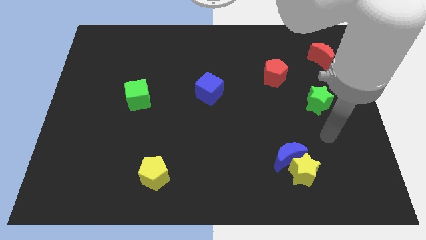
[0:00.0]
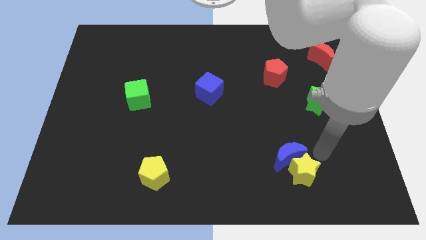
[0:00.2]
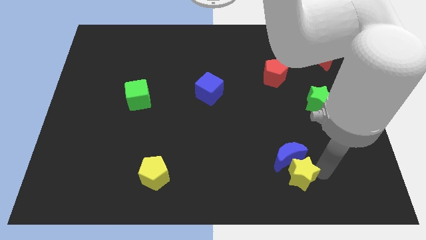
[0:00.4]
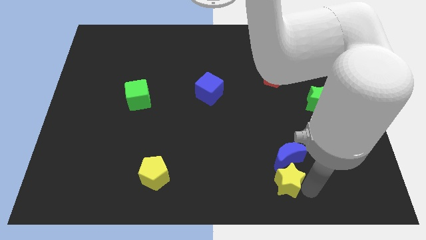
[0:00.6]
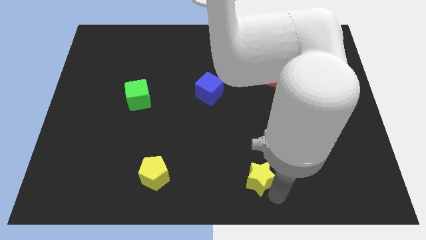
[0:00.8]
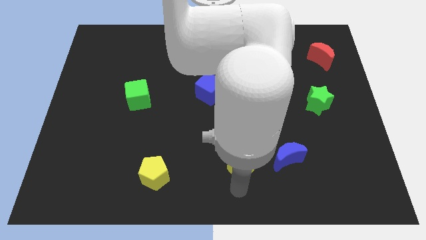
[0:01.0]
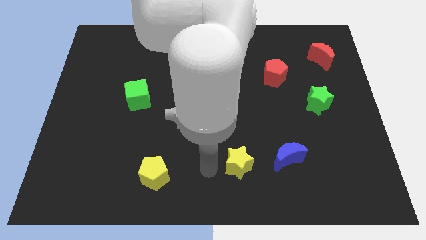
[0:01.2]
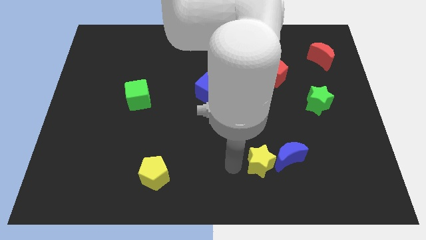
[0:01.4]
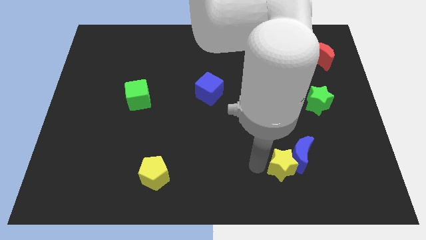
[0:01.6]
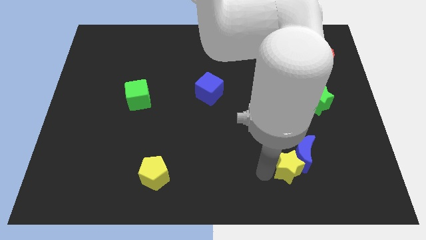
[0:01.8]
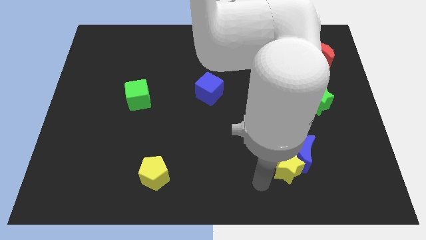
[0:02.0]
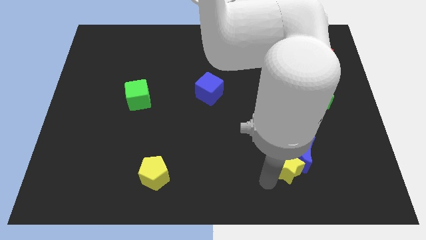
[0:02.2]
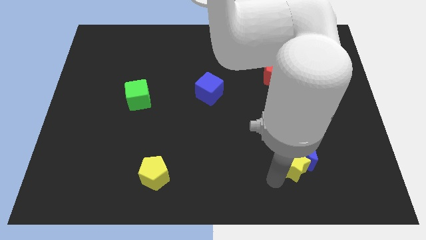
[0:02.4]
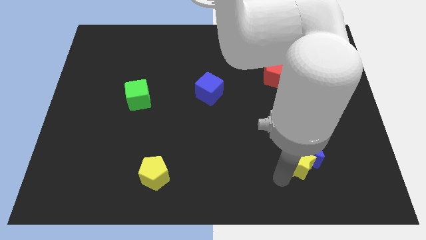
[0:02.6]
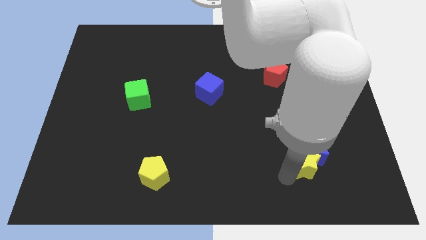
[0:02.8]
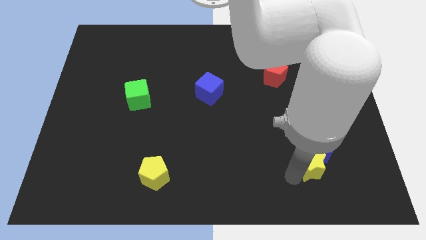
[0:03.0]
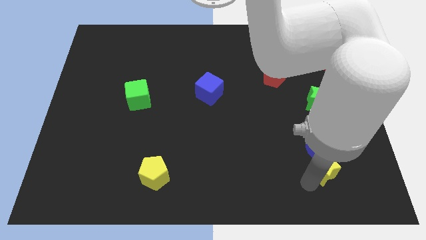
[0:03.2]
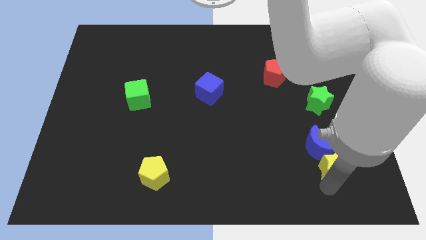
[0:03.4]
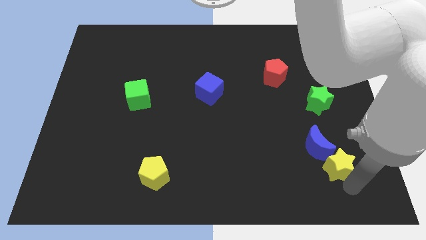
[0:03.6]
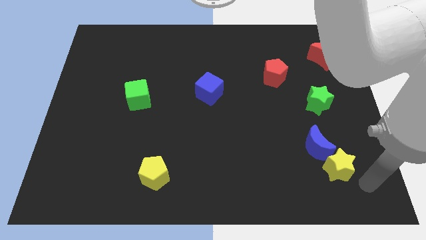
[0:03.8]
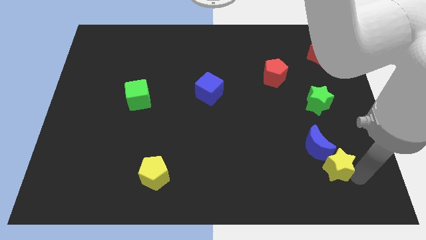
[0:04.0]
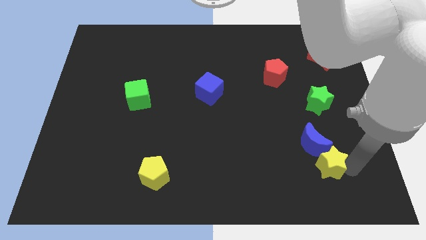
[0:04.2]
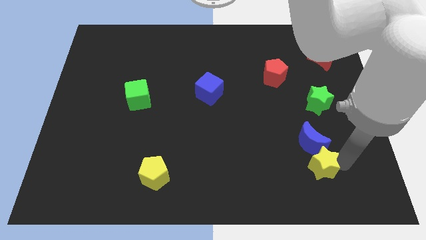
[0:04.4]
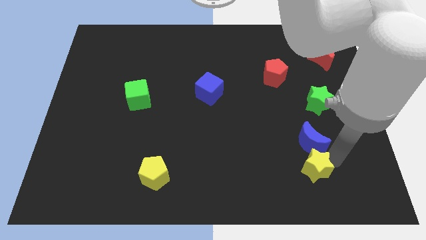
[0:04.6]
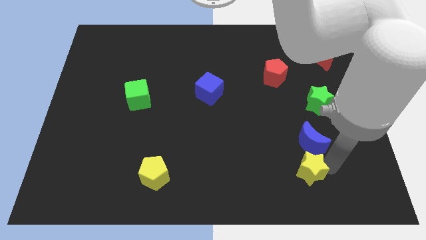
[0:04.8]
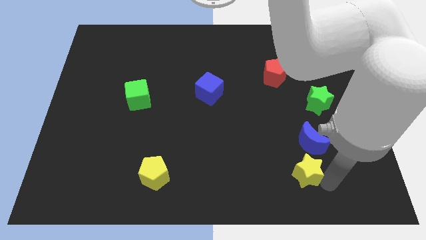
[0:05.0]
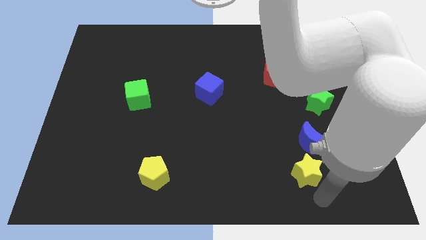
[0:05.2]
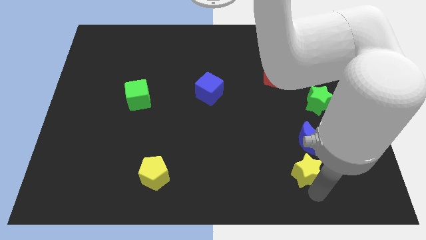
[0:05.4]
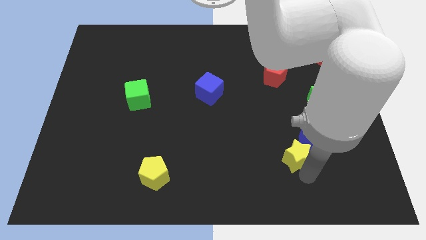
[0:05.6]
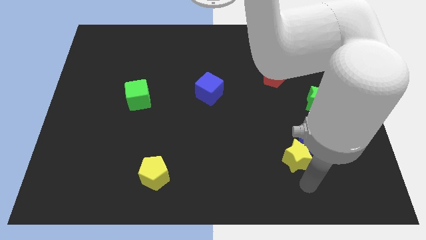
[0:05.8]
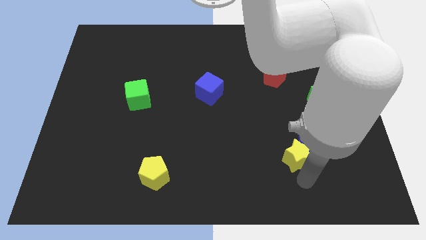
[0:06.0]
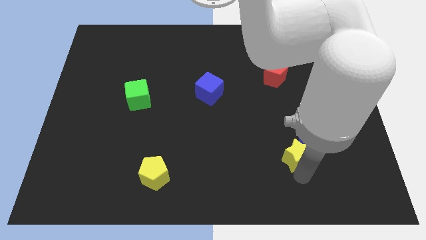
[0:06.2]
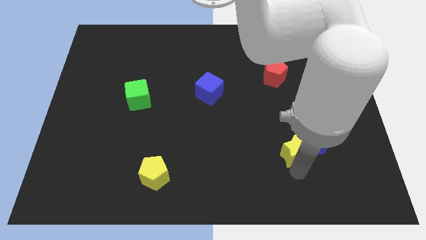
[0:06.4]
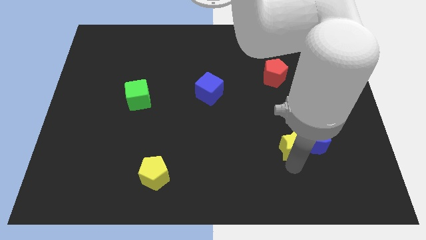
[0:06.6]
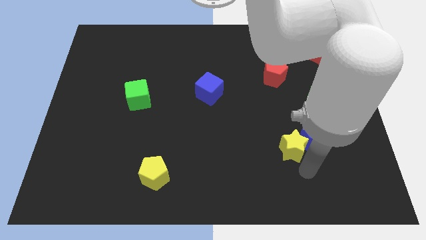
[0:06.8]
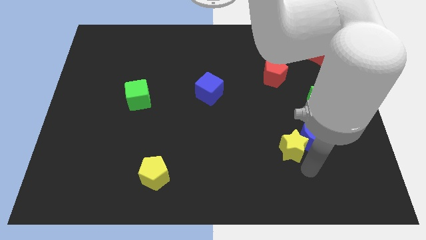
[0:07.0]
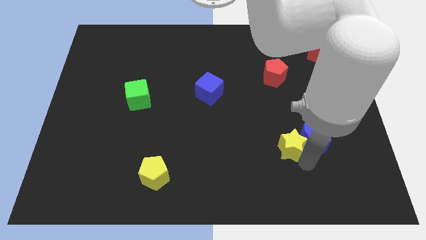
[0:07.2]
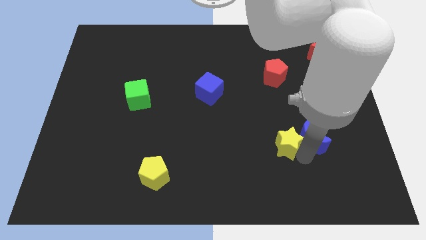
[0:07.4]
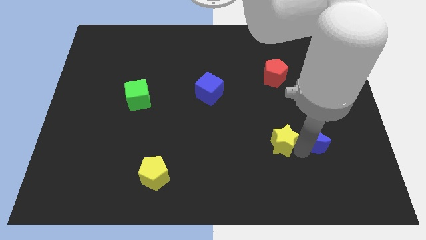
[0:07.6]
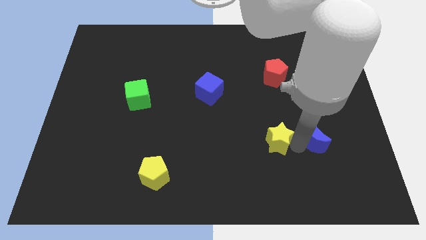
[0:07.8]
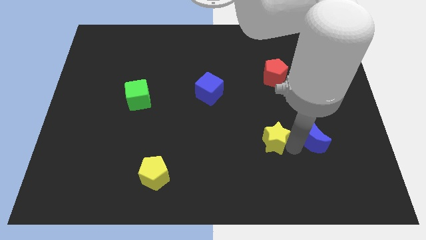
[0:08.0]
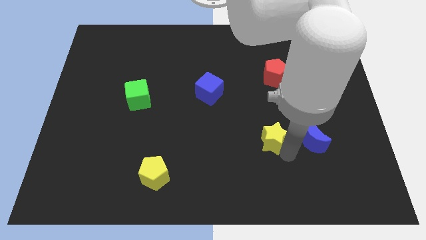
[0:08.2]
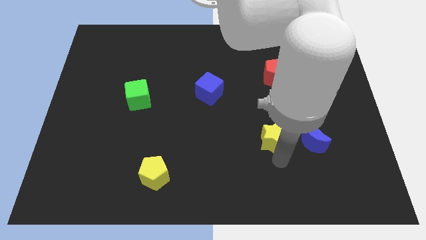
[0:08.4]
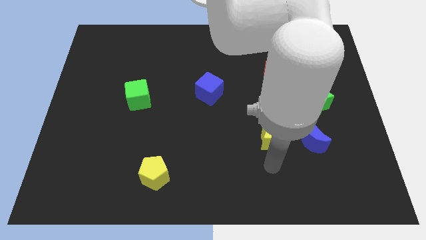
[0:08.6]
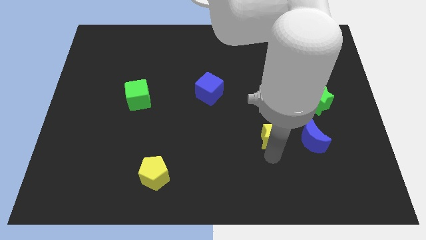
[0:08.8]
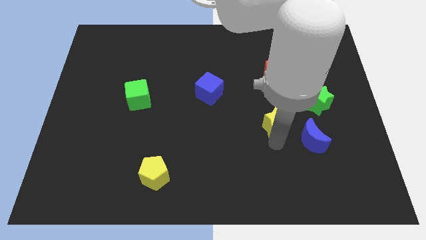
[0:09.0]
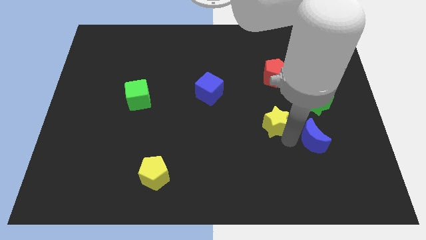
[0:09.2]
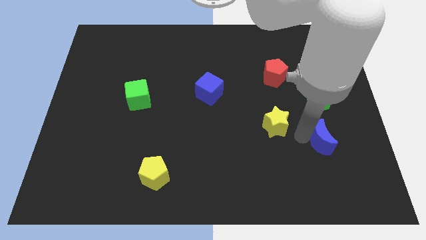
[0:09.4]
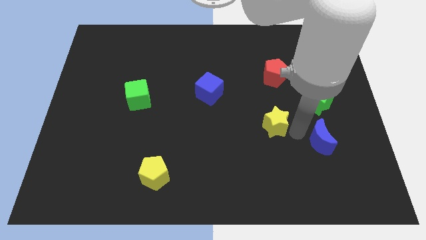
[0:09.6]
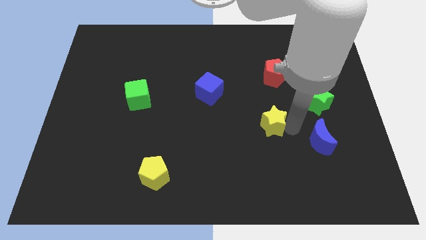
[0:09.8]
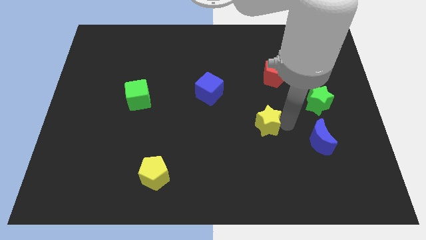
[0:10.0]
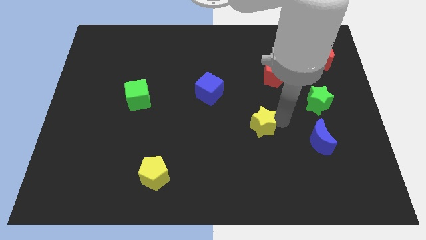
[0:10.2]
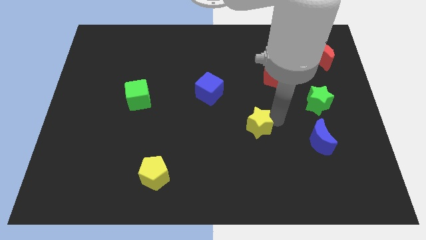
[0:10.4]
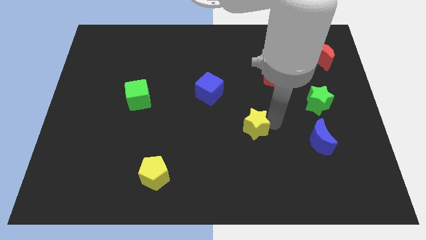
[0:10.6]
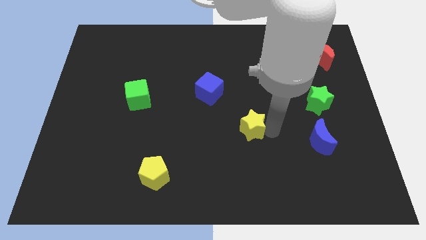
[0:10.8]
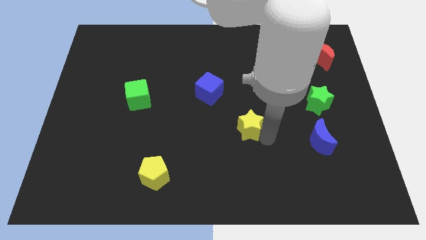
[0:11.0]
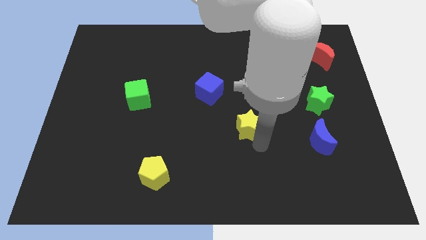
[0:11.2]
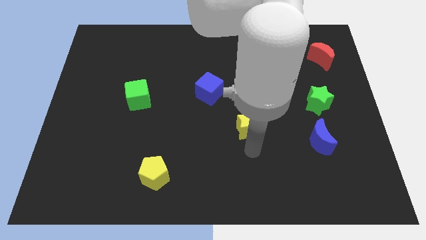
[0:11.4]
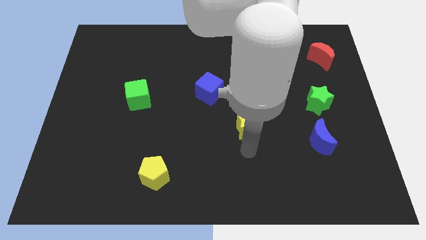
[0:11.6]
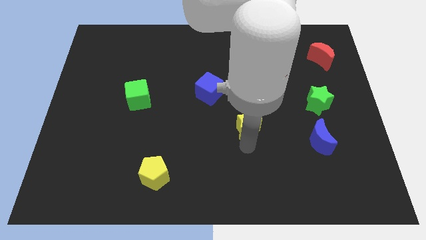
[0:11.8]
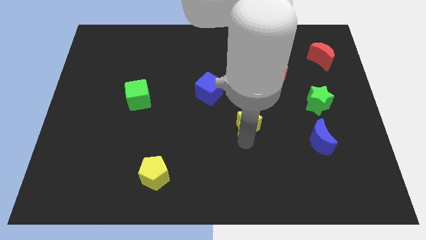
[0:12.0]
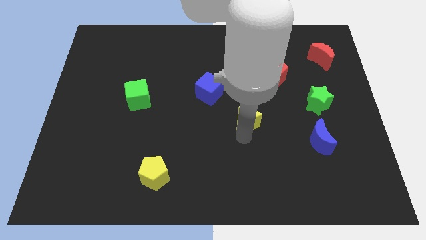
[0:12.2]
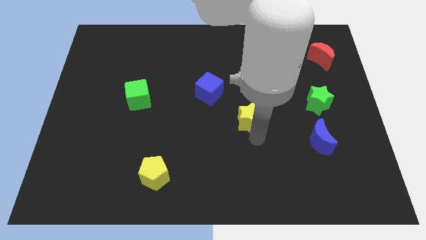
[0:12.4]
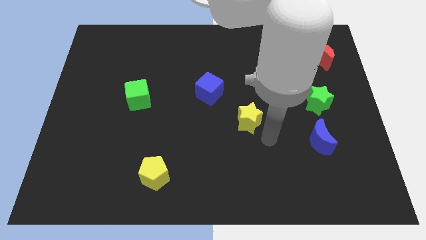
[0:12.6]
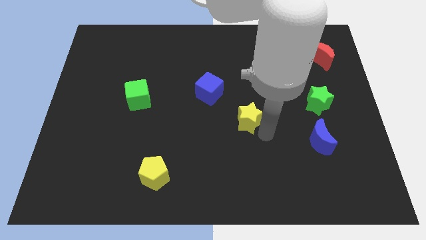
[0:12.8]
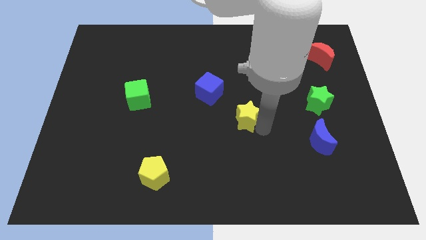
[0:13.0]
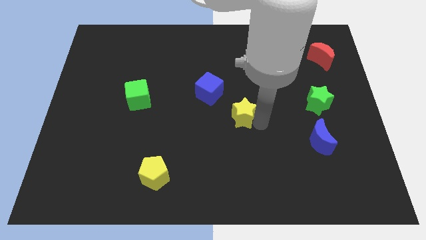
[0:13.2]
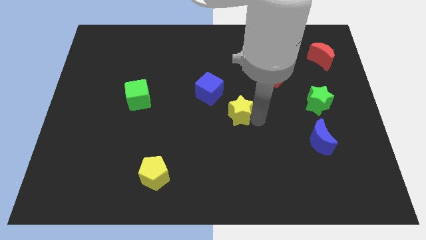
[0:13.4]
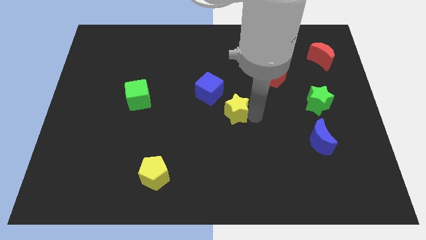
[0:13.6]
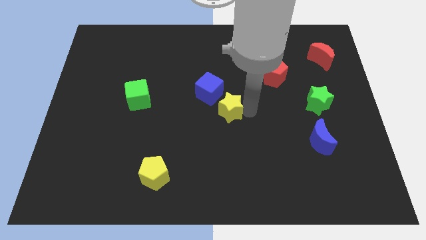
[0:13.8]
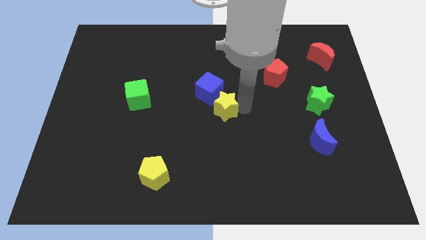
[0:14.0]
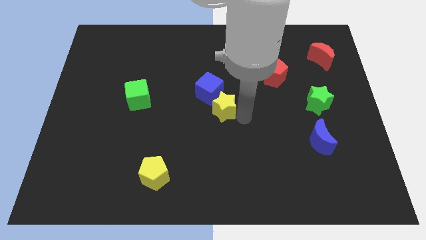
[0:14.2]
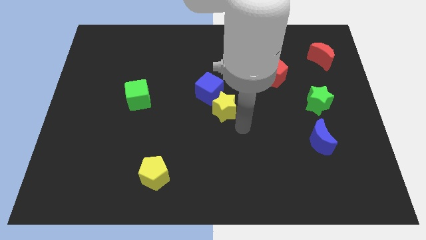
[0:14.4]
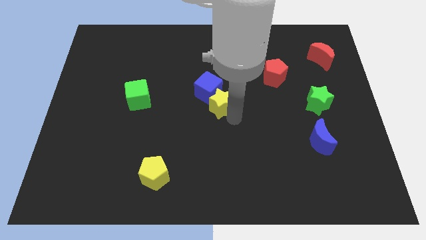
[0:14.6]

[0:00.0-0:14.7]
slide the yellow star to the blue cube
